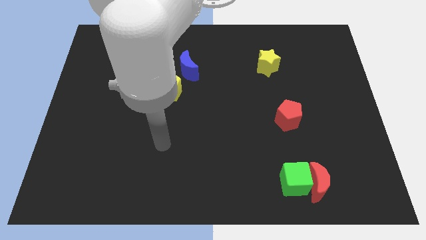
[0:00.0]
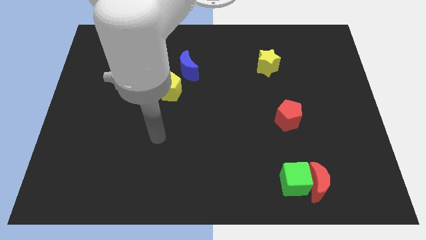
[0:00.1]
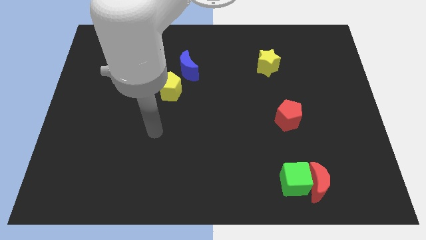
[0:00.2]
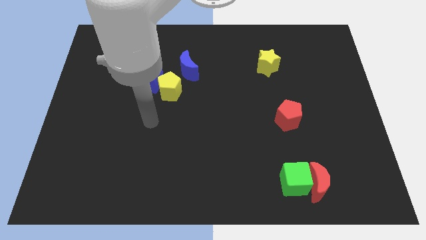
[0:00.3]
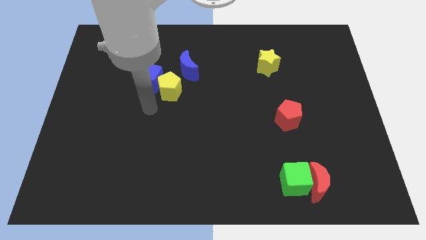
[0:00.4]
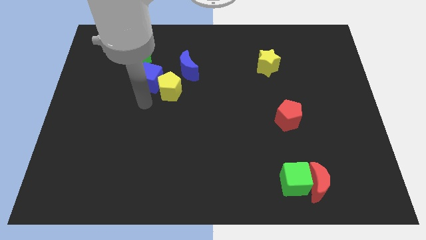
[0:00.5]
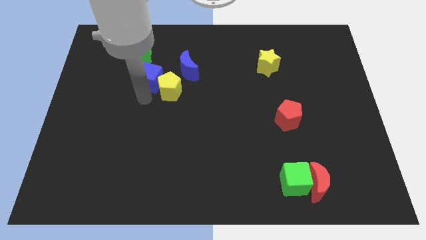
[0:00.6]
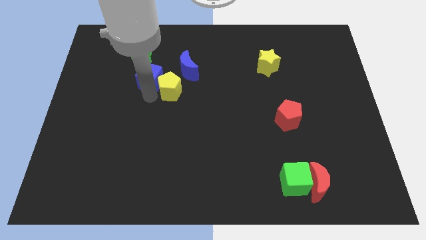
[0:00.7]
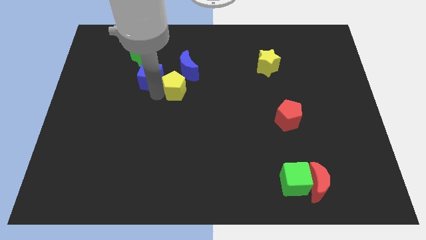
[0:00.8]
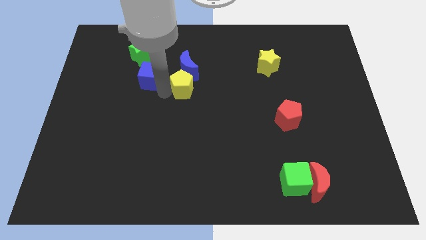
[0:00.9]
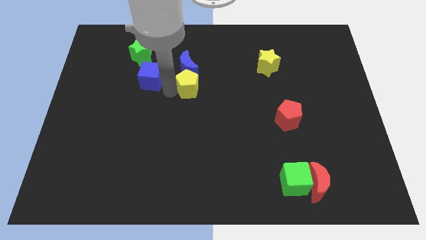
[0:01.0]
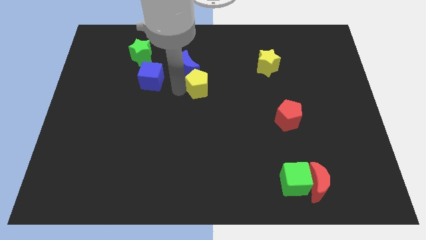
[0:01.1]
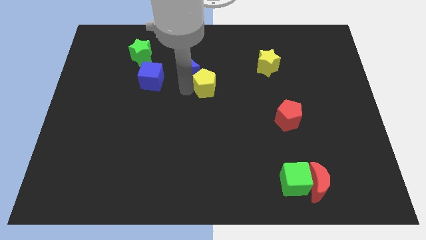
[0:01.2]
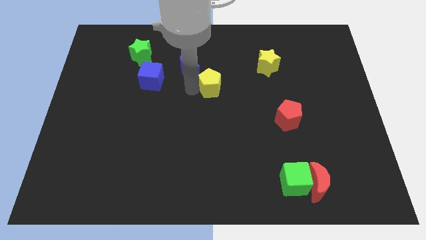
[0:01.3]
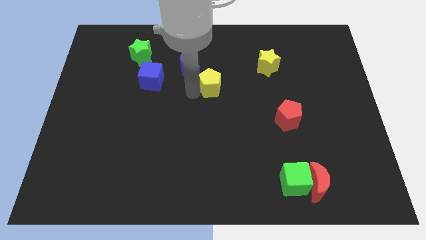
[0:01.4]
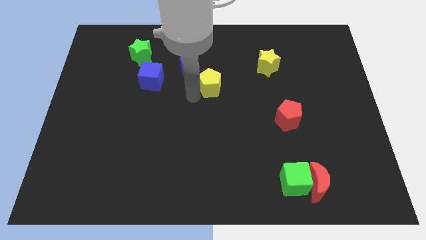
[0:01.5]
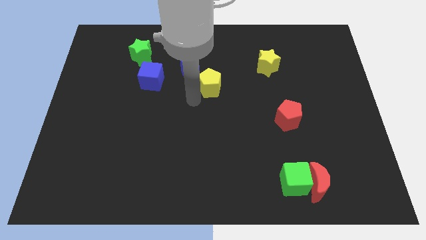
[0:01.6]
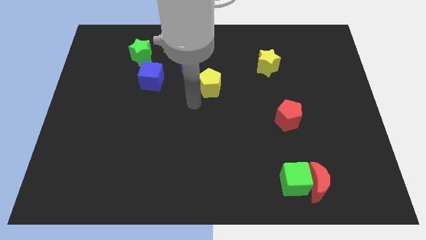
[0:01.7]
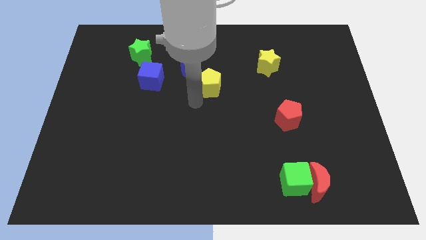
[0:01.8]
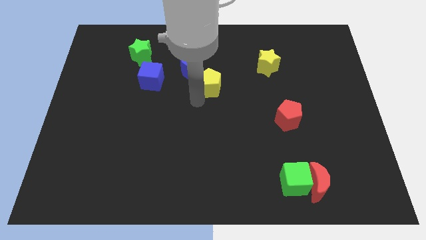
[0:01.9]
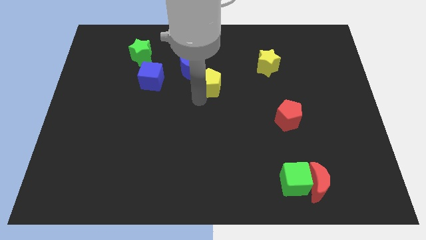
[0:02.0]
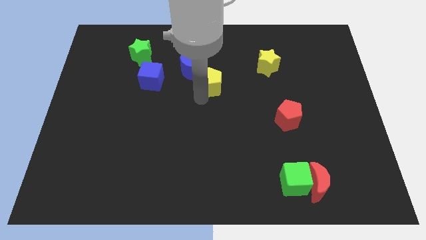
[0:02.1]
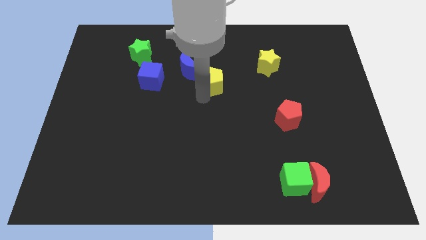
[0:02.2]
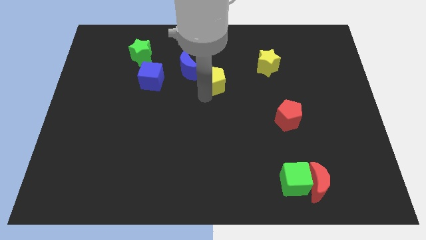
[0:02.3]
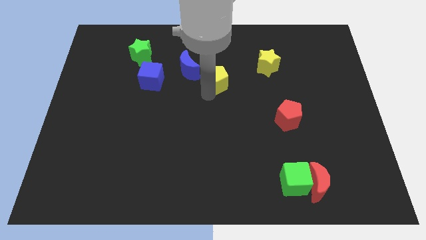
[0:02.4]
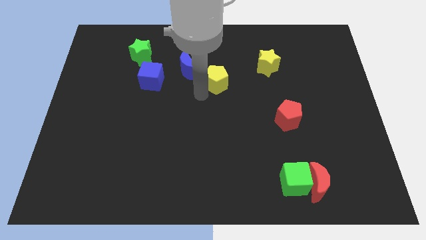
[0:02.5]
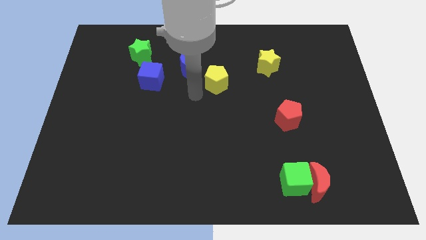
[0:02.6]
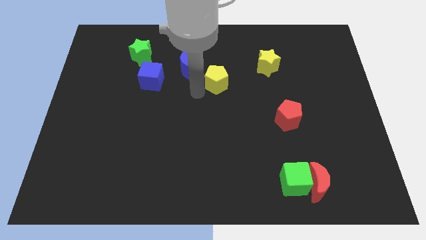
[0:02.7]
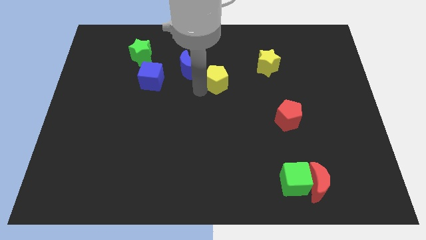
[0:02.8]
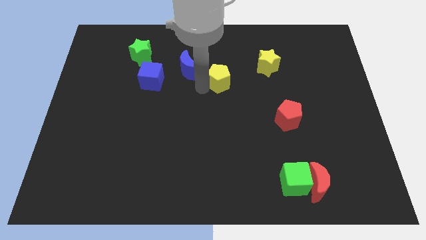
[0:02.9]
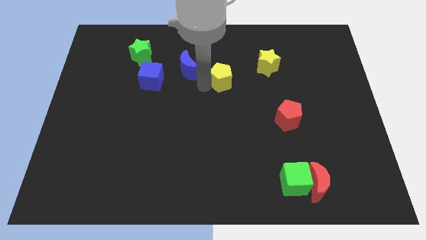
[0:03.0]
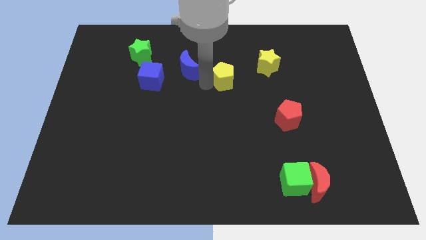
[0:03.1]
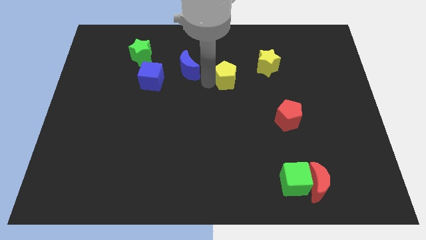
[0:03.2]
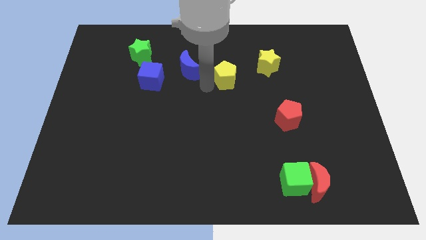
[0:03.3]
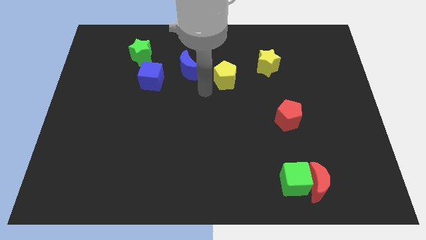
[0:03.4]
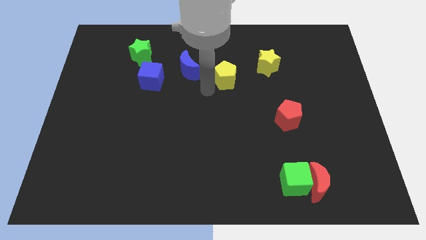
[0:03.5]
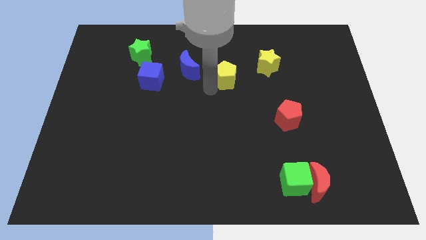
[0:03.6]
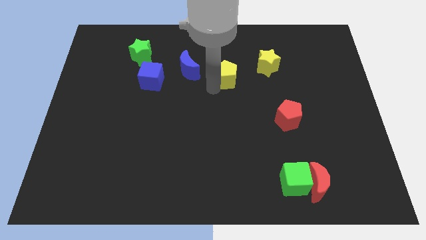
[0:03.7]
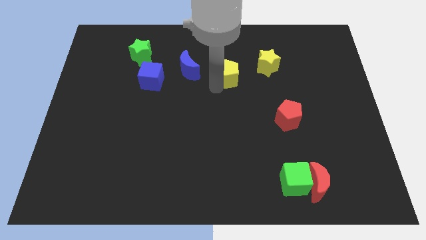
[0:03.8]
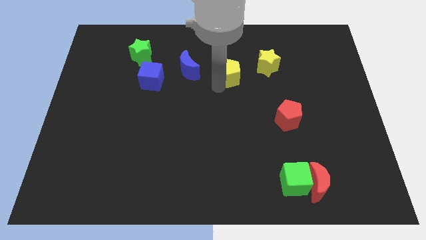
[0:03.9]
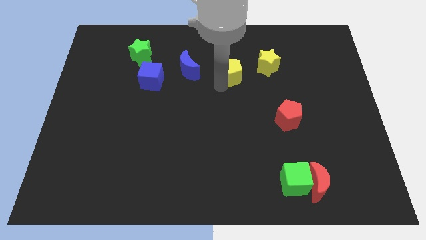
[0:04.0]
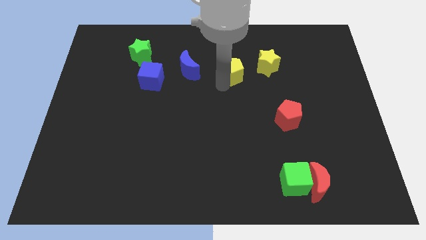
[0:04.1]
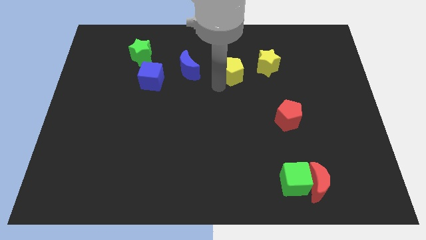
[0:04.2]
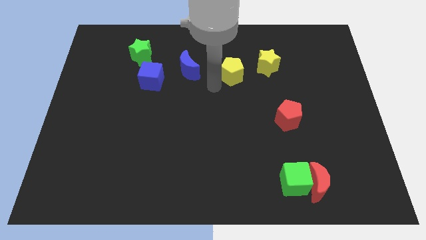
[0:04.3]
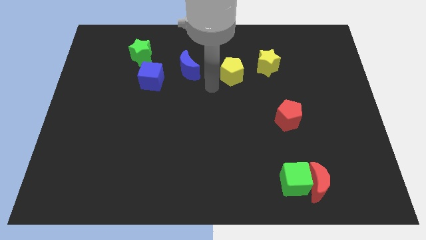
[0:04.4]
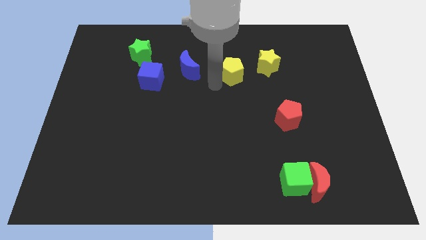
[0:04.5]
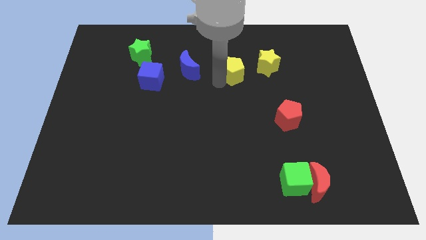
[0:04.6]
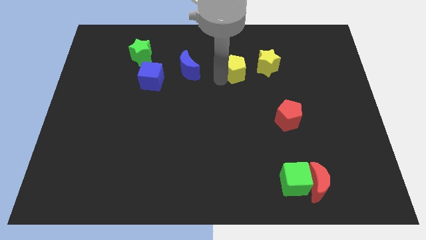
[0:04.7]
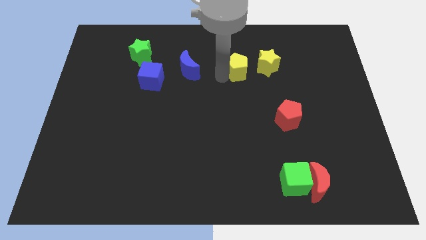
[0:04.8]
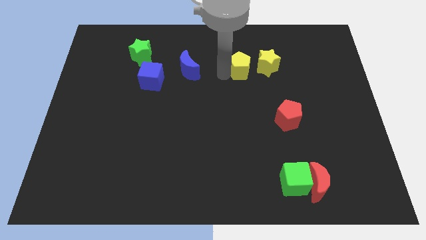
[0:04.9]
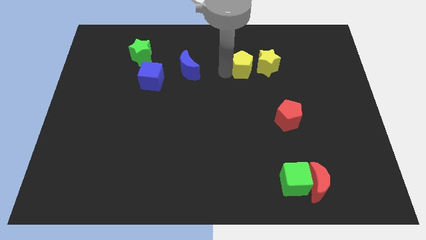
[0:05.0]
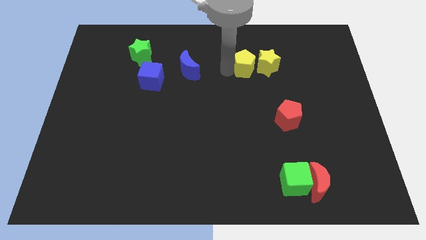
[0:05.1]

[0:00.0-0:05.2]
slide the yellow pentagon towards the yellow star

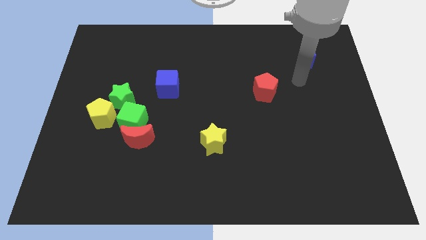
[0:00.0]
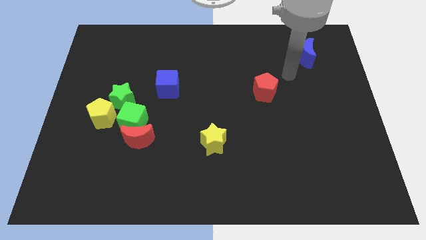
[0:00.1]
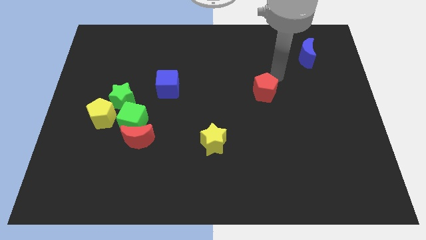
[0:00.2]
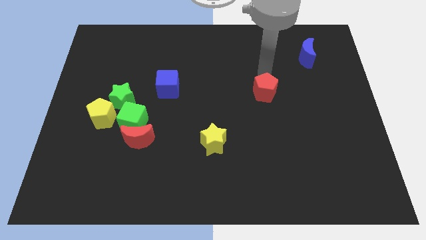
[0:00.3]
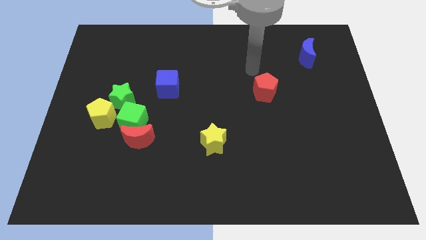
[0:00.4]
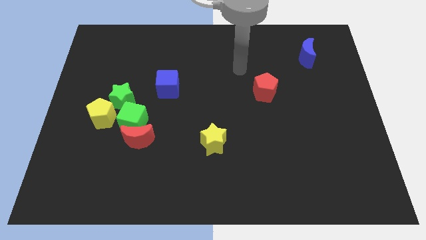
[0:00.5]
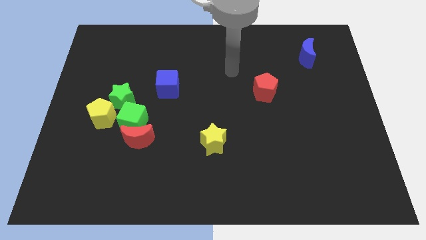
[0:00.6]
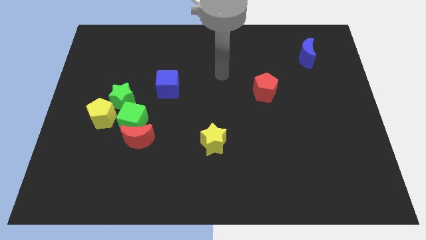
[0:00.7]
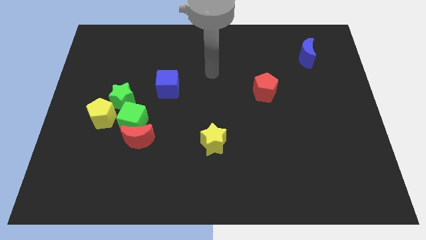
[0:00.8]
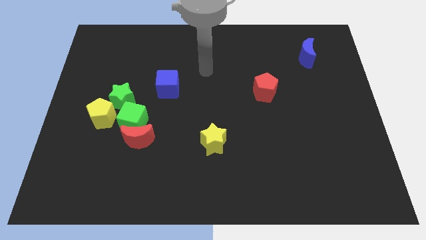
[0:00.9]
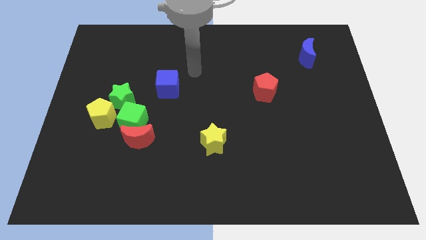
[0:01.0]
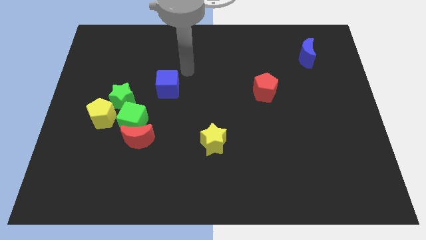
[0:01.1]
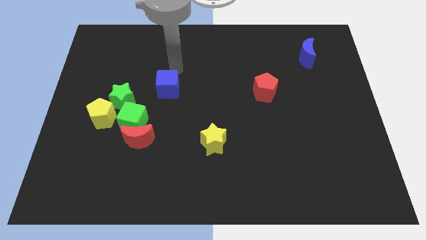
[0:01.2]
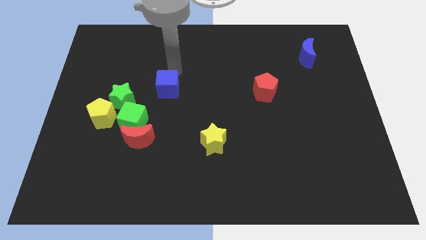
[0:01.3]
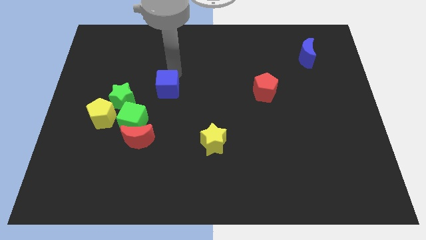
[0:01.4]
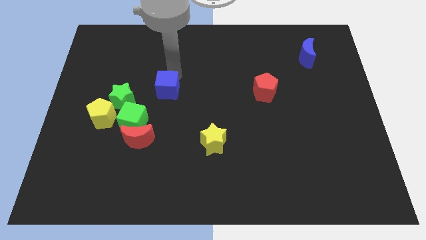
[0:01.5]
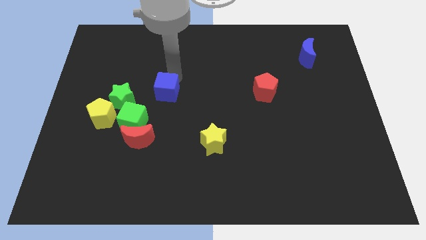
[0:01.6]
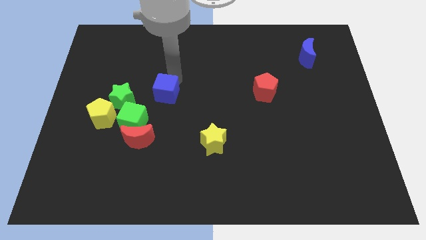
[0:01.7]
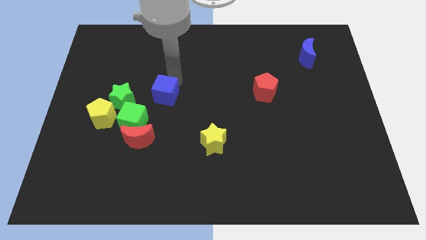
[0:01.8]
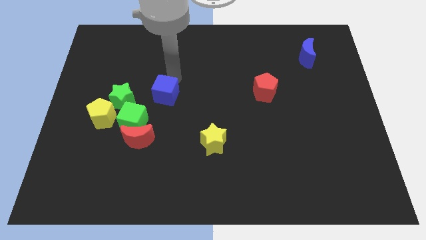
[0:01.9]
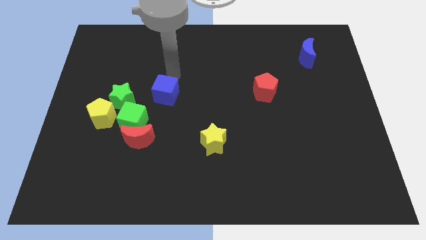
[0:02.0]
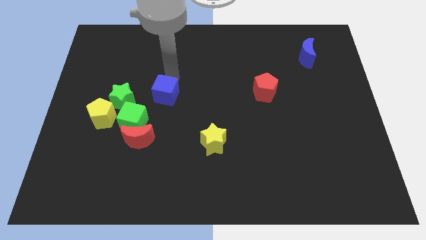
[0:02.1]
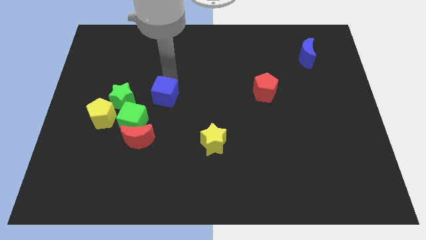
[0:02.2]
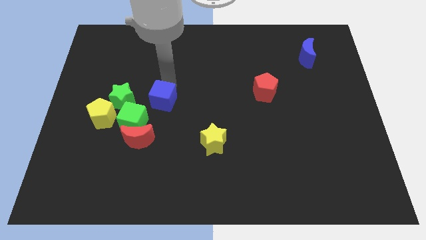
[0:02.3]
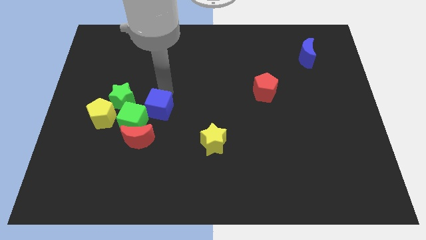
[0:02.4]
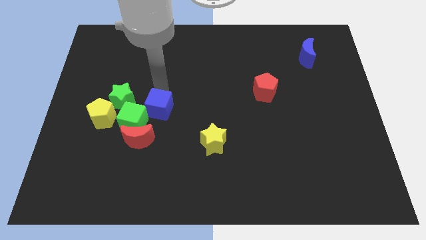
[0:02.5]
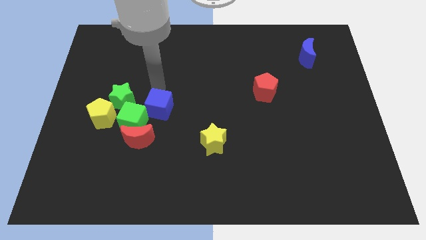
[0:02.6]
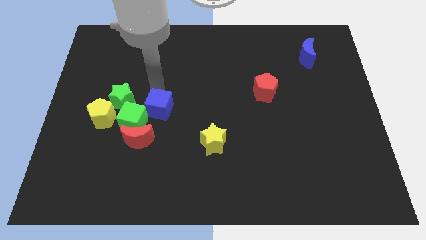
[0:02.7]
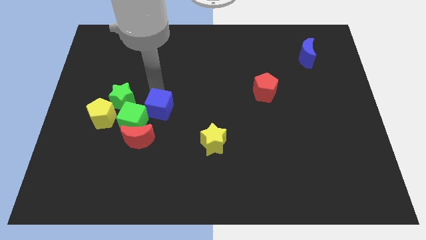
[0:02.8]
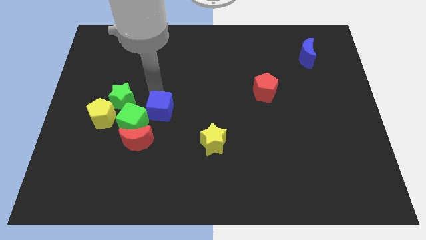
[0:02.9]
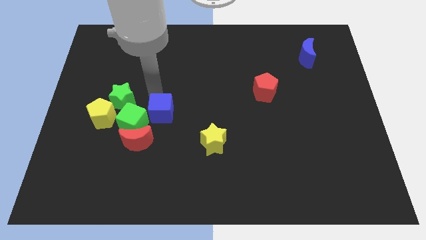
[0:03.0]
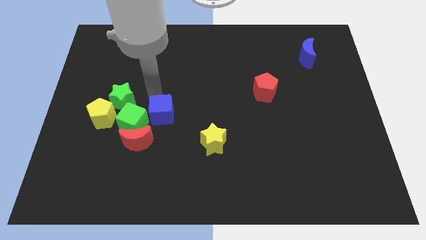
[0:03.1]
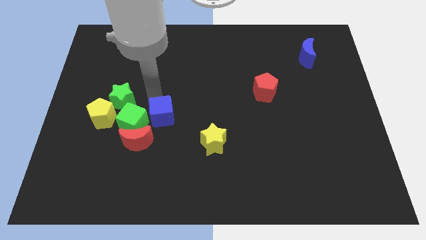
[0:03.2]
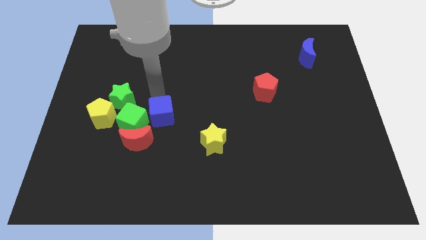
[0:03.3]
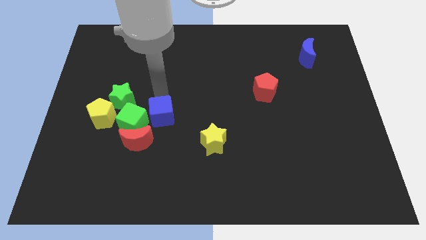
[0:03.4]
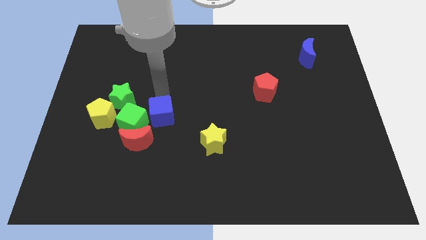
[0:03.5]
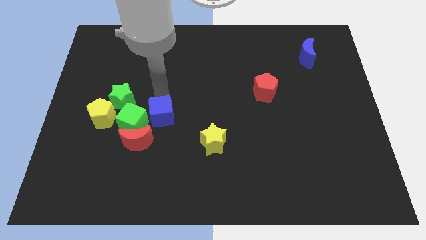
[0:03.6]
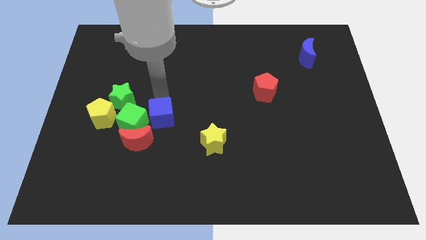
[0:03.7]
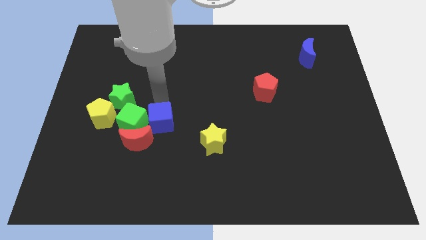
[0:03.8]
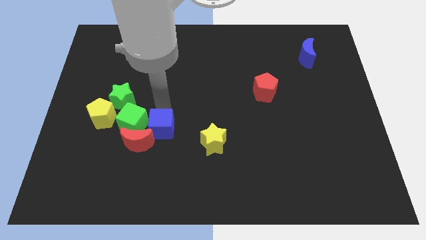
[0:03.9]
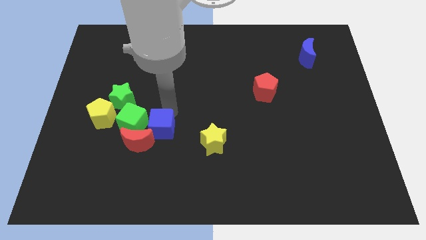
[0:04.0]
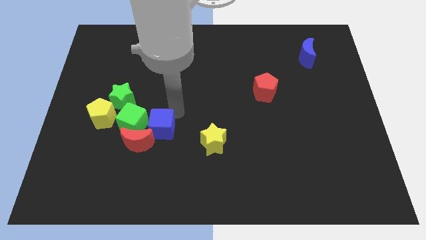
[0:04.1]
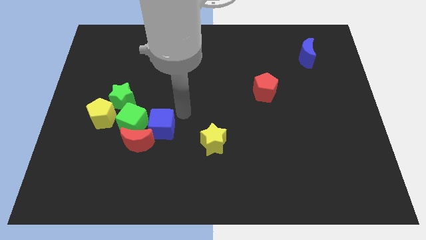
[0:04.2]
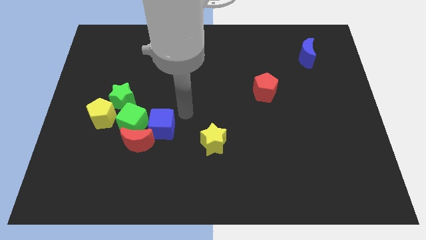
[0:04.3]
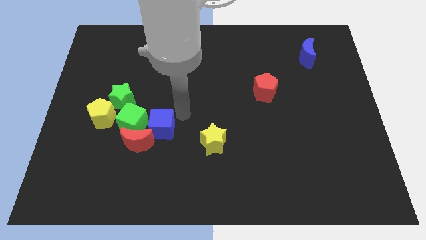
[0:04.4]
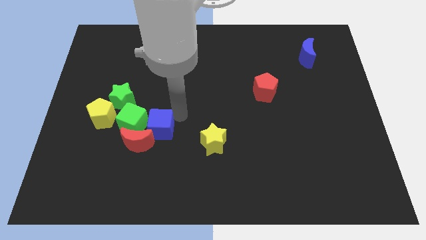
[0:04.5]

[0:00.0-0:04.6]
slide the blue cube close to the red moon
